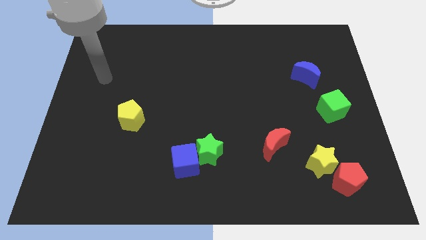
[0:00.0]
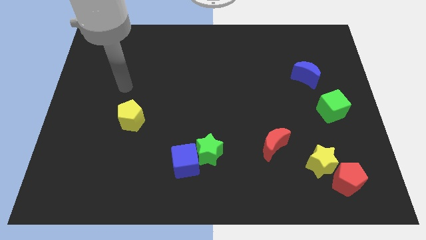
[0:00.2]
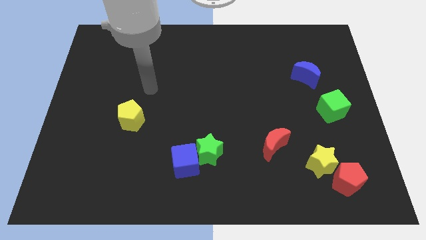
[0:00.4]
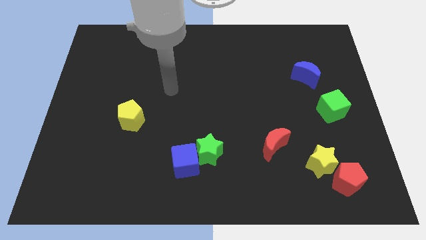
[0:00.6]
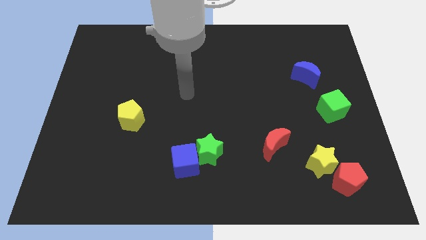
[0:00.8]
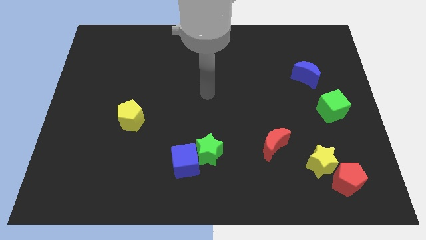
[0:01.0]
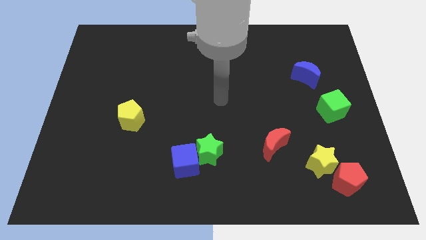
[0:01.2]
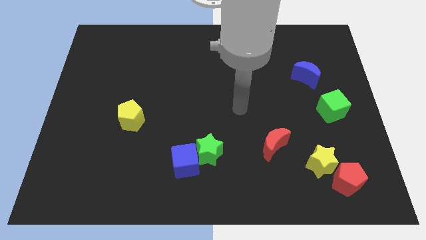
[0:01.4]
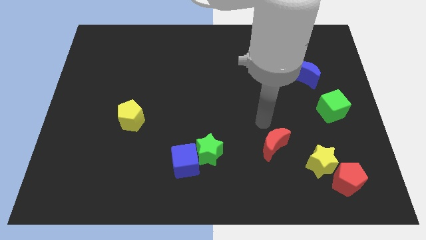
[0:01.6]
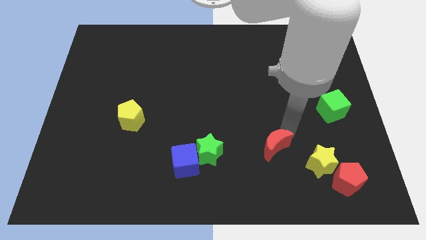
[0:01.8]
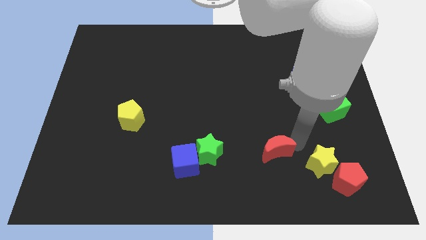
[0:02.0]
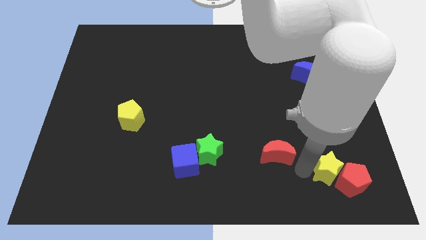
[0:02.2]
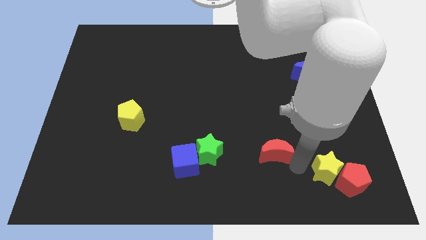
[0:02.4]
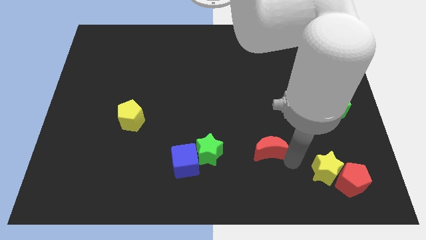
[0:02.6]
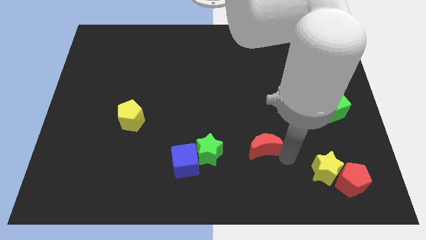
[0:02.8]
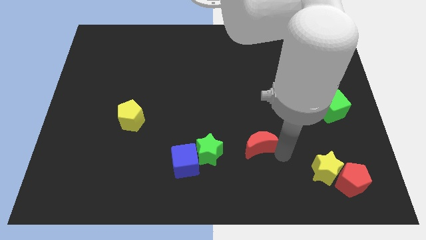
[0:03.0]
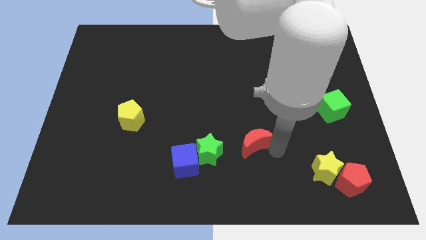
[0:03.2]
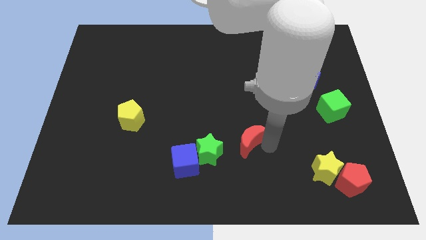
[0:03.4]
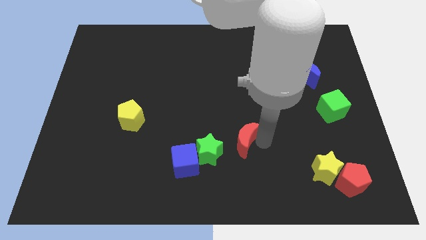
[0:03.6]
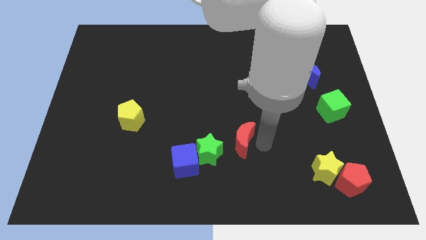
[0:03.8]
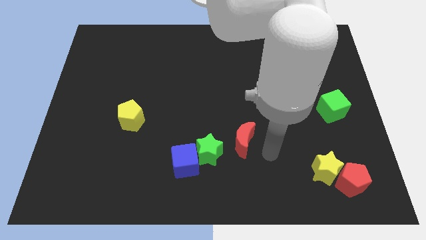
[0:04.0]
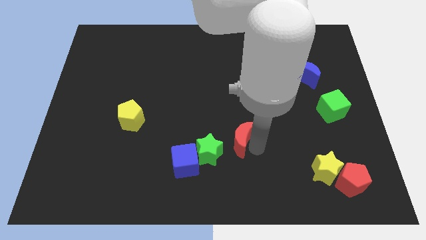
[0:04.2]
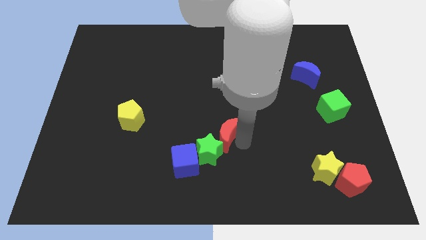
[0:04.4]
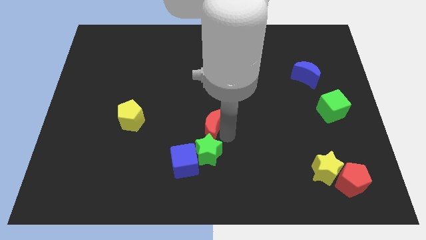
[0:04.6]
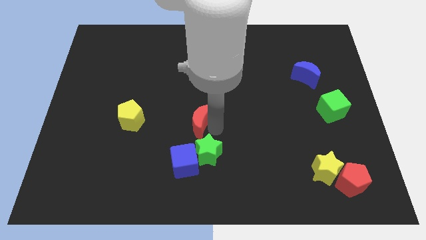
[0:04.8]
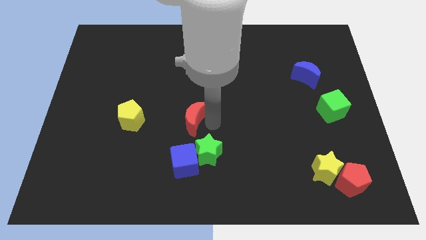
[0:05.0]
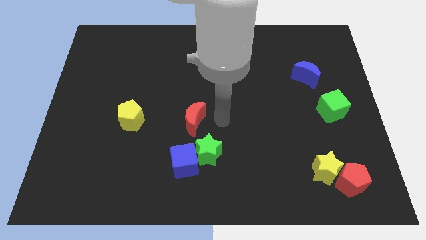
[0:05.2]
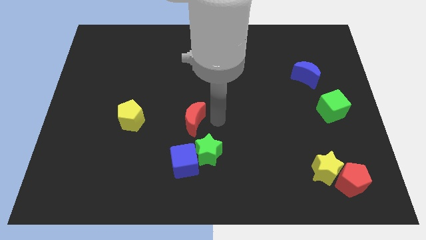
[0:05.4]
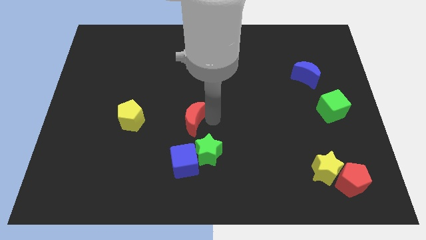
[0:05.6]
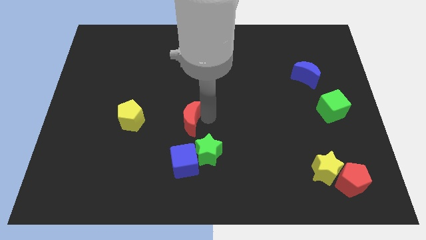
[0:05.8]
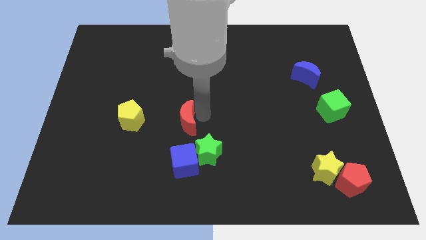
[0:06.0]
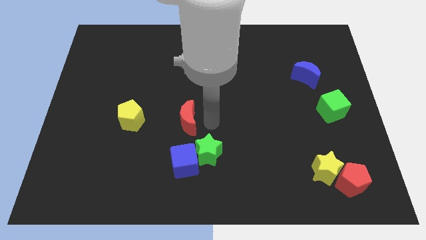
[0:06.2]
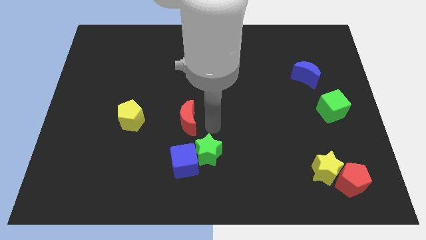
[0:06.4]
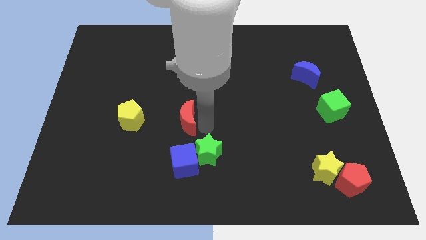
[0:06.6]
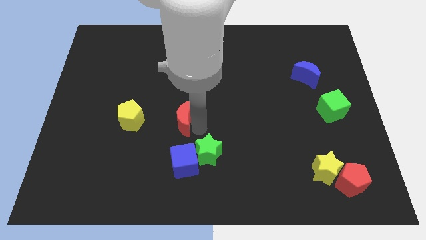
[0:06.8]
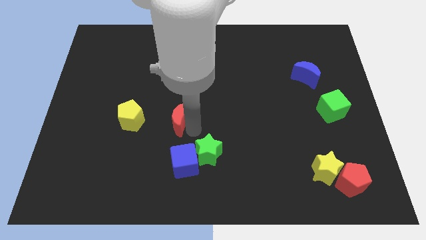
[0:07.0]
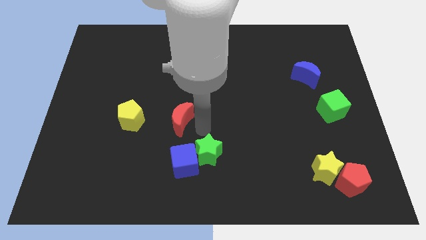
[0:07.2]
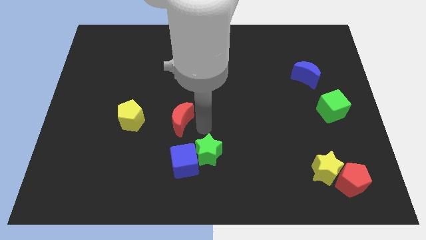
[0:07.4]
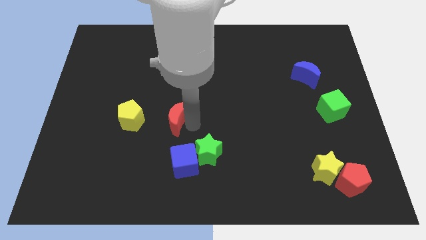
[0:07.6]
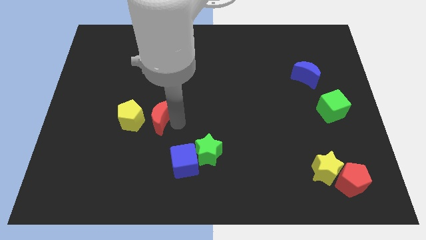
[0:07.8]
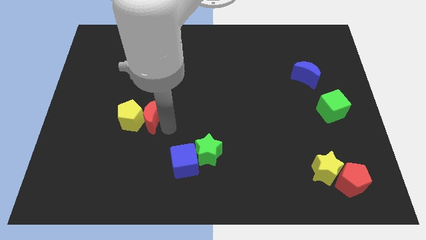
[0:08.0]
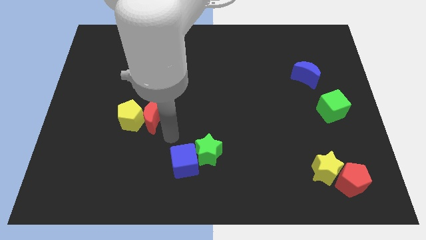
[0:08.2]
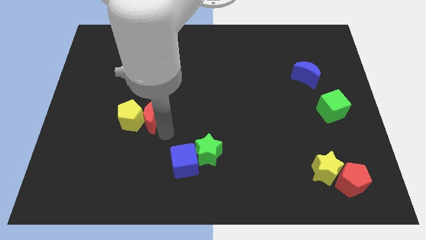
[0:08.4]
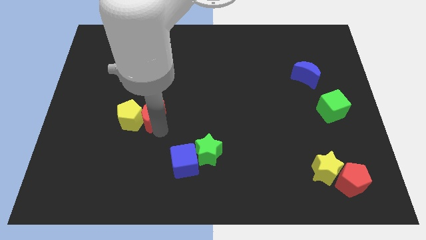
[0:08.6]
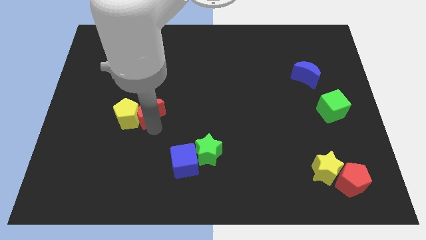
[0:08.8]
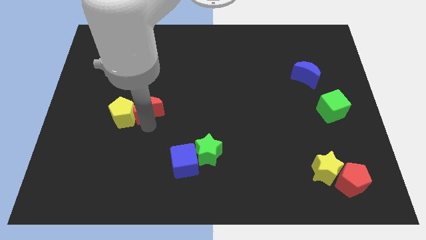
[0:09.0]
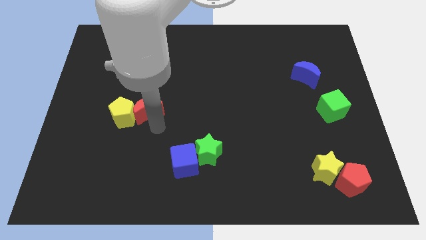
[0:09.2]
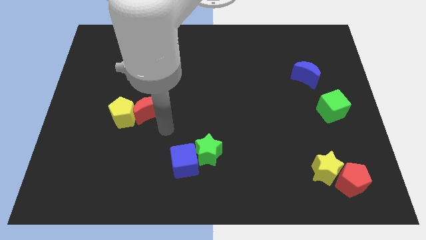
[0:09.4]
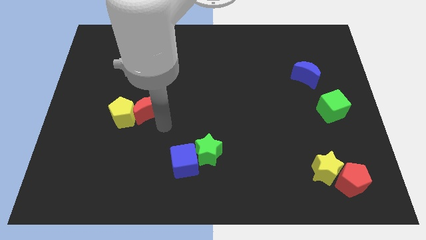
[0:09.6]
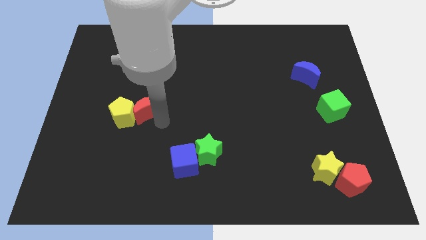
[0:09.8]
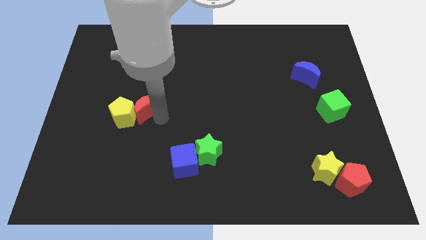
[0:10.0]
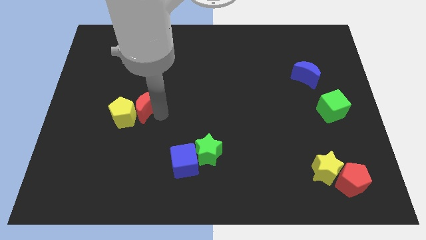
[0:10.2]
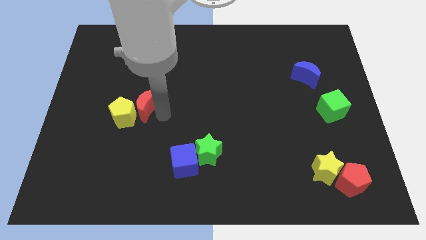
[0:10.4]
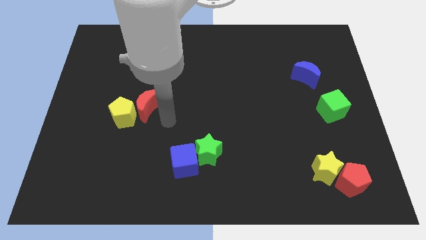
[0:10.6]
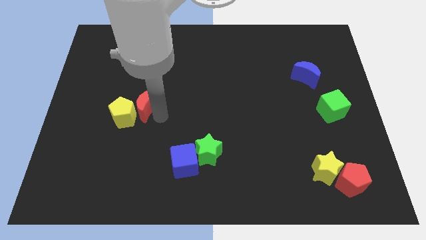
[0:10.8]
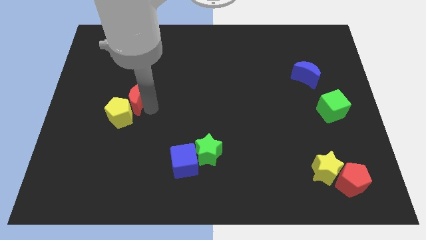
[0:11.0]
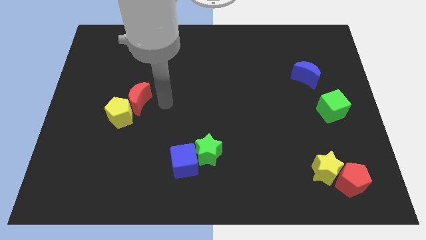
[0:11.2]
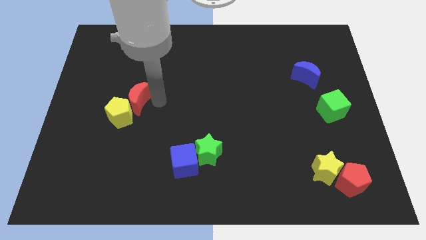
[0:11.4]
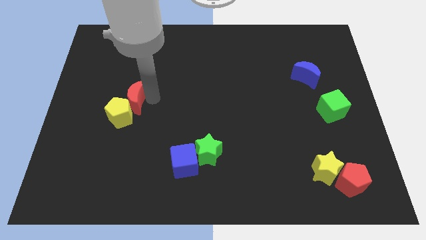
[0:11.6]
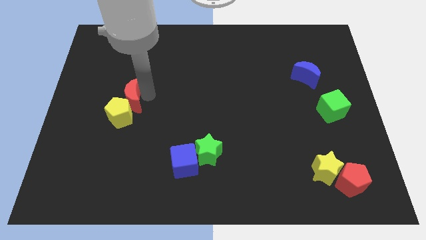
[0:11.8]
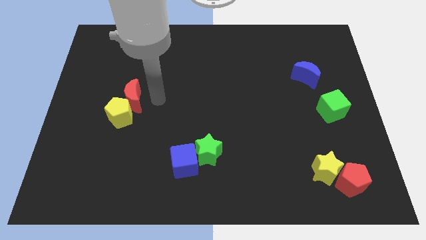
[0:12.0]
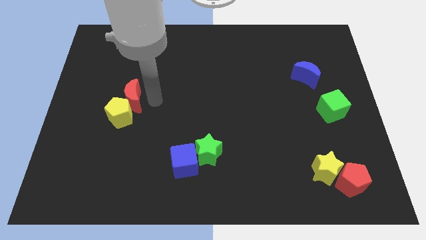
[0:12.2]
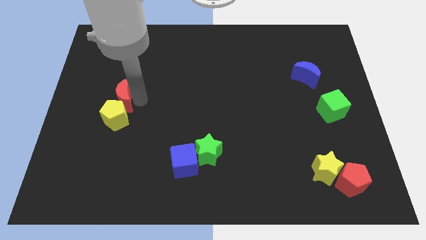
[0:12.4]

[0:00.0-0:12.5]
push the red moon diagonally up and to the left of the yellow pentagon
